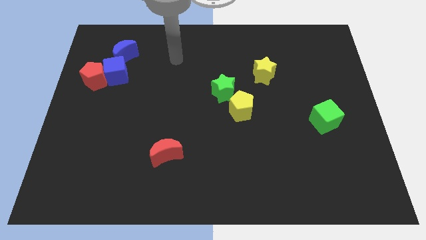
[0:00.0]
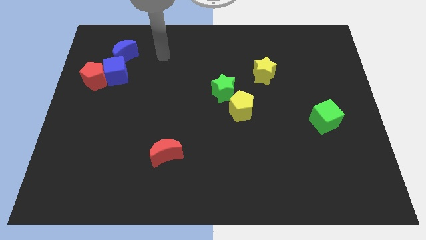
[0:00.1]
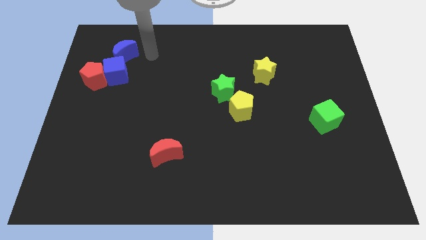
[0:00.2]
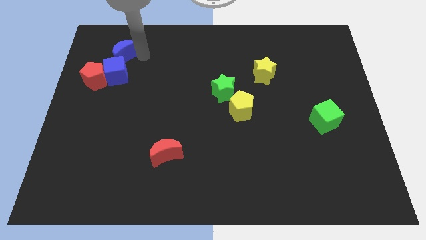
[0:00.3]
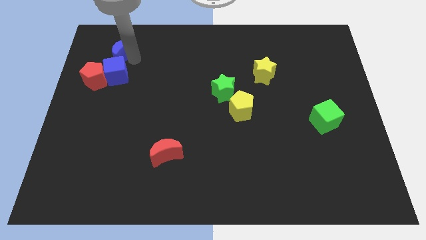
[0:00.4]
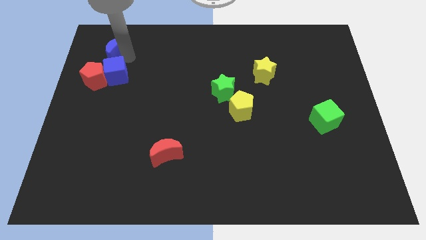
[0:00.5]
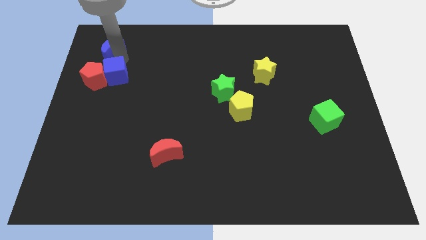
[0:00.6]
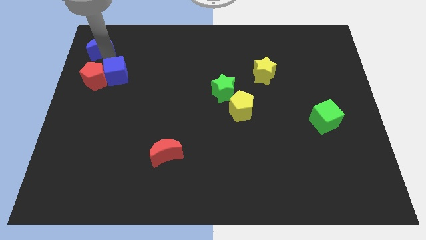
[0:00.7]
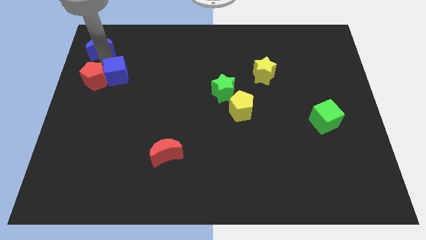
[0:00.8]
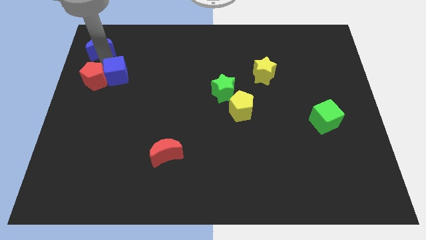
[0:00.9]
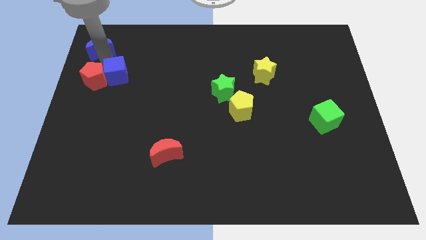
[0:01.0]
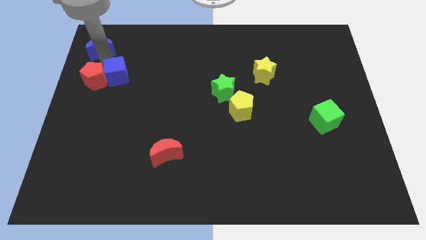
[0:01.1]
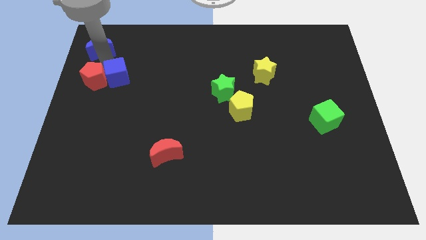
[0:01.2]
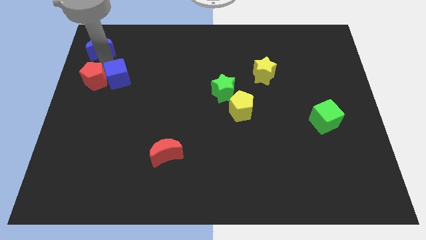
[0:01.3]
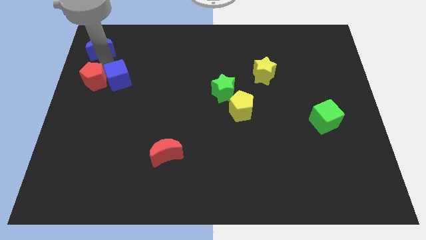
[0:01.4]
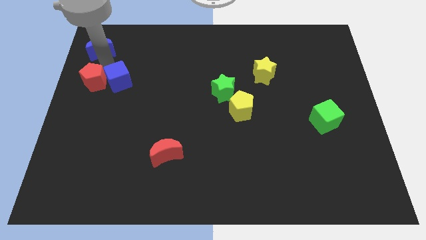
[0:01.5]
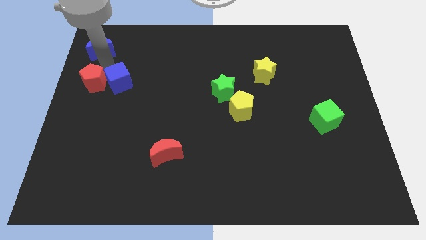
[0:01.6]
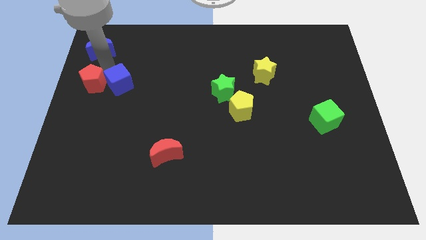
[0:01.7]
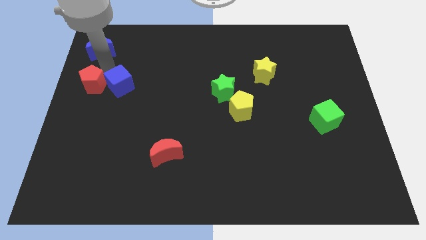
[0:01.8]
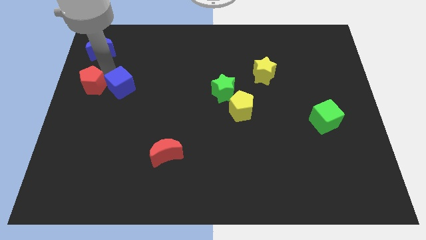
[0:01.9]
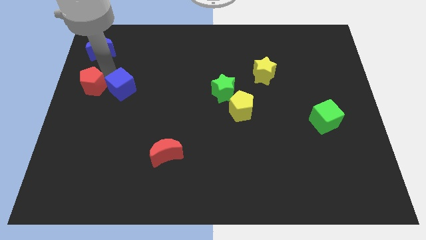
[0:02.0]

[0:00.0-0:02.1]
pull the blue cube apart from the red pentagon and blue moon

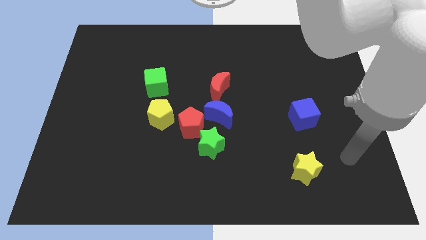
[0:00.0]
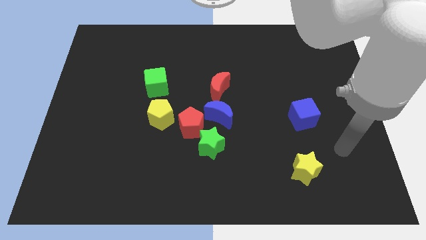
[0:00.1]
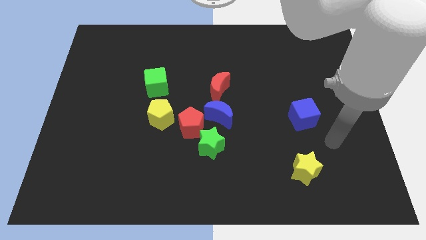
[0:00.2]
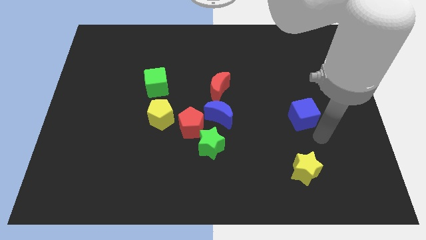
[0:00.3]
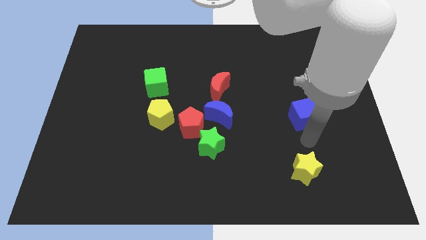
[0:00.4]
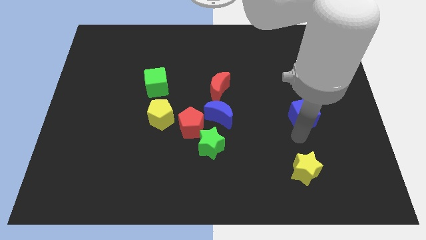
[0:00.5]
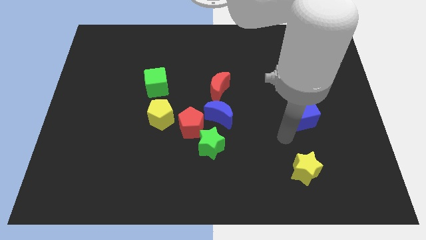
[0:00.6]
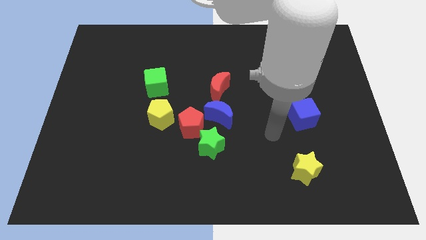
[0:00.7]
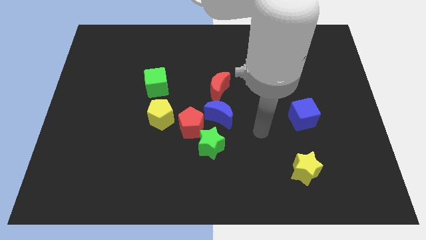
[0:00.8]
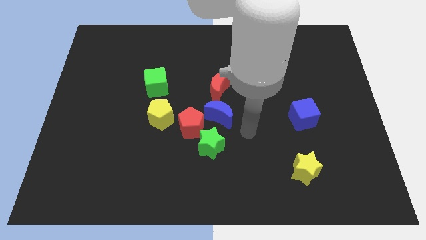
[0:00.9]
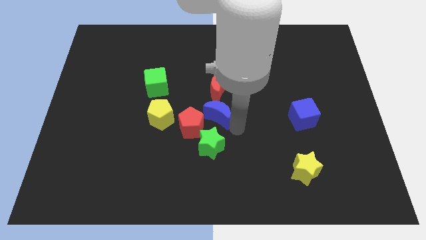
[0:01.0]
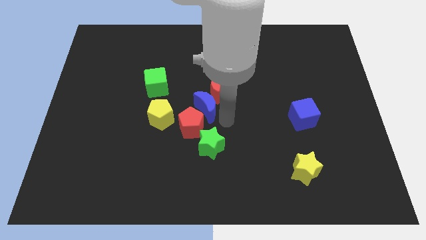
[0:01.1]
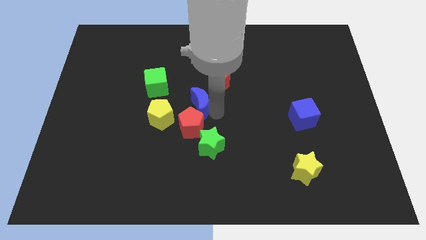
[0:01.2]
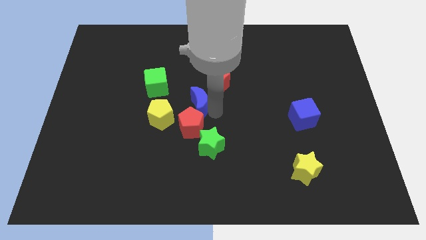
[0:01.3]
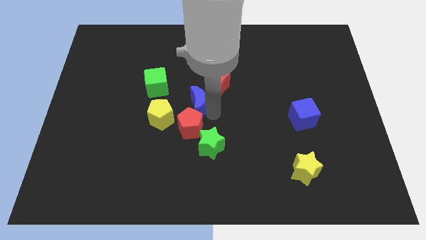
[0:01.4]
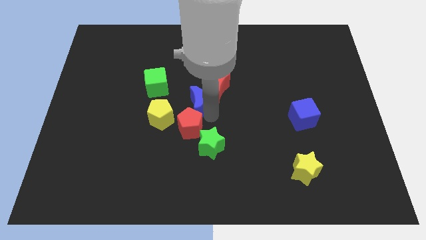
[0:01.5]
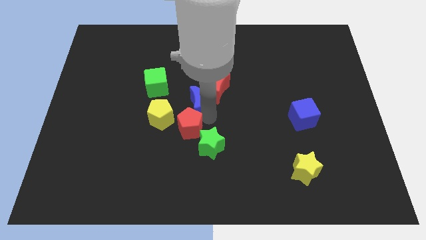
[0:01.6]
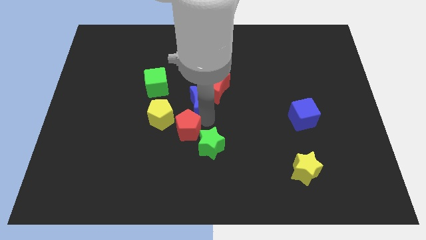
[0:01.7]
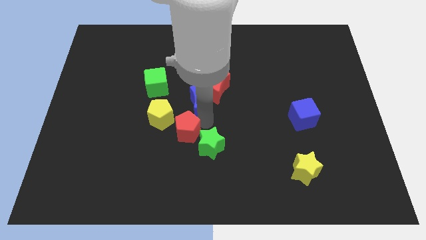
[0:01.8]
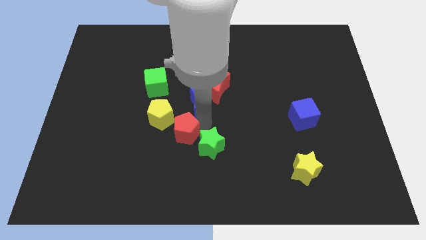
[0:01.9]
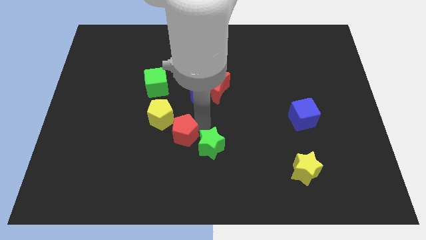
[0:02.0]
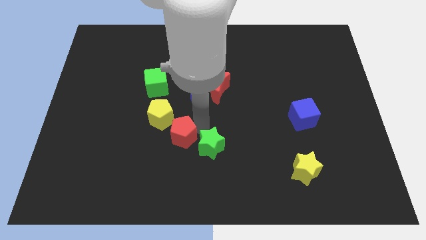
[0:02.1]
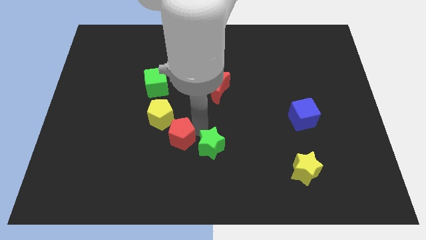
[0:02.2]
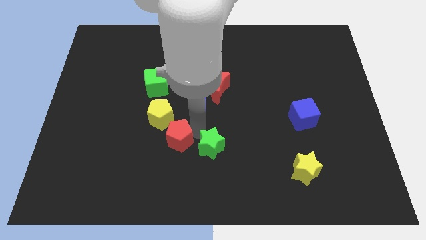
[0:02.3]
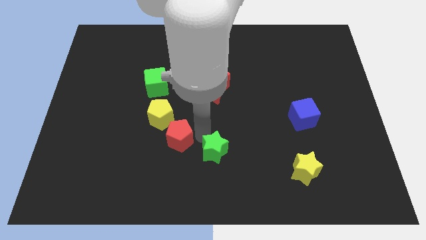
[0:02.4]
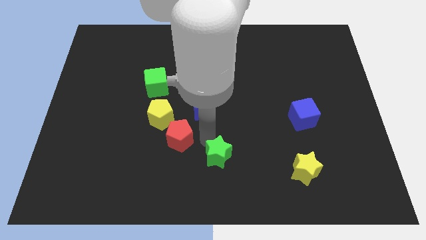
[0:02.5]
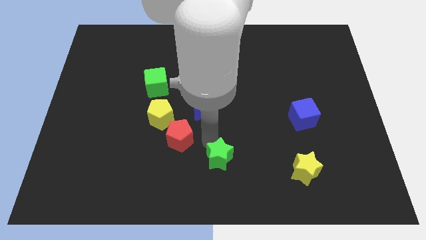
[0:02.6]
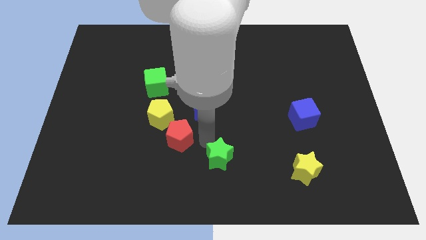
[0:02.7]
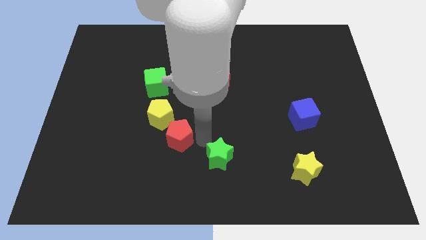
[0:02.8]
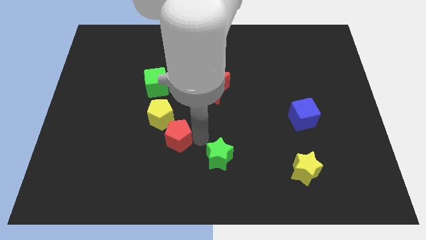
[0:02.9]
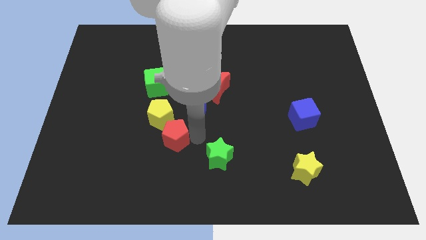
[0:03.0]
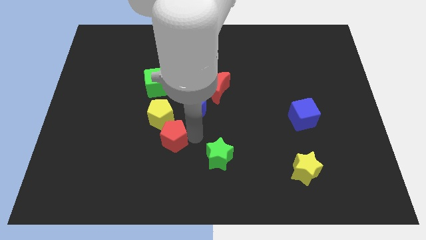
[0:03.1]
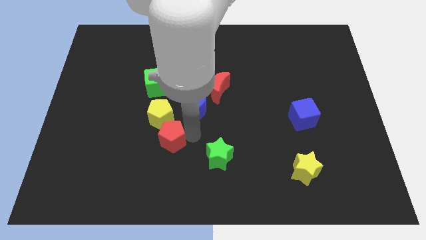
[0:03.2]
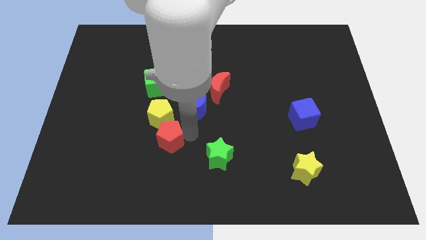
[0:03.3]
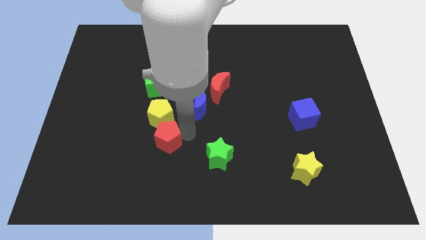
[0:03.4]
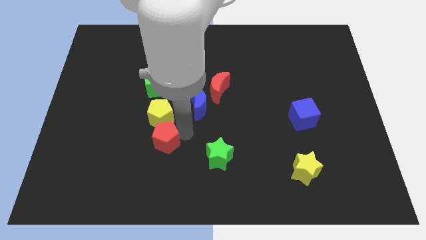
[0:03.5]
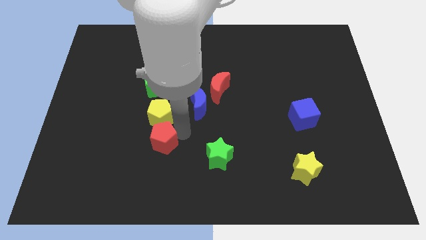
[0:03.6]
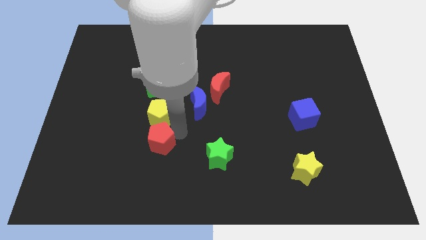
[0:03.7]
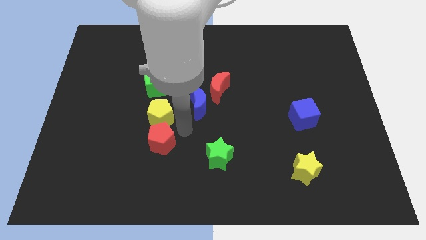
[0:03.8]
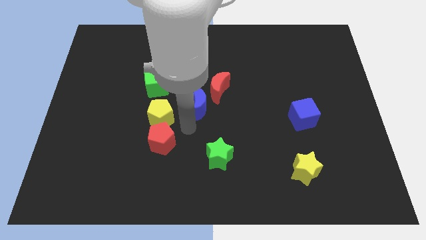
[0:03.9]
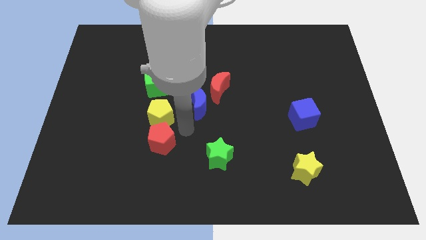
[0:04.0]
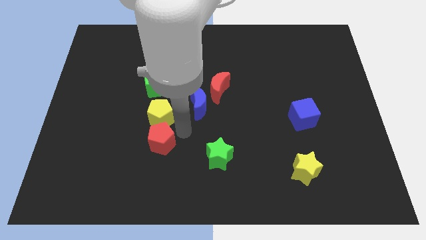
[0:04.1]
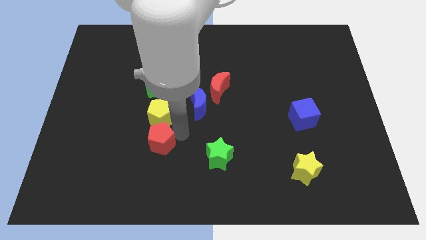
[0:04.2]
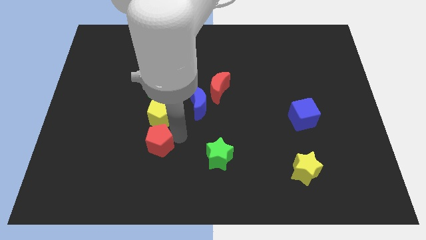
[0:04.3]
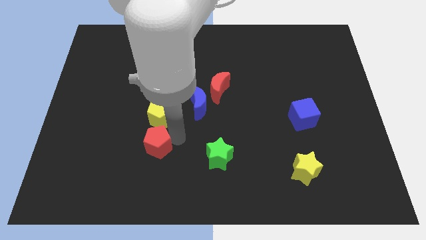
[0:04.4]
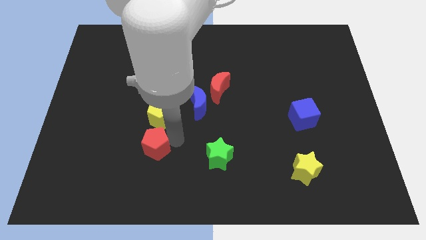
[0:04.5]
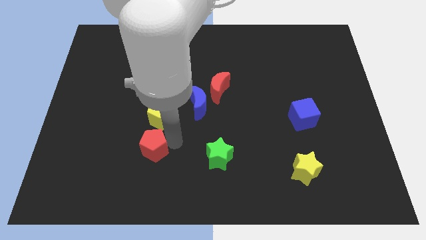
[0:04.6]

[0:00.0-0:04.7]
pull the red pentagon apart from the green star, blue moon, and yellow pentagon

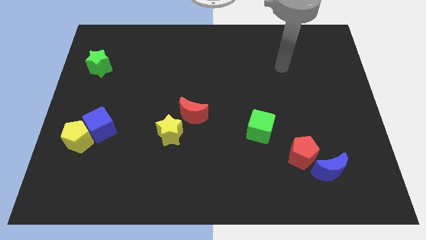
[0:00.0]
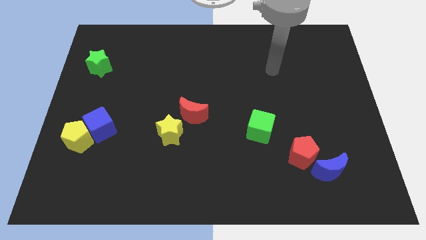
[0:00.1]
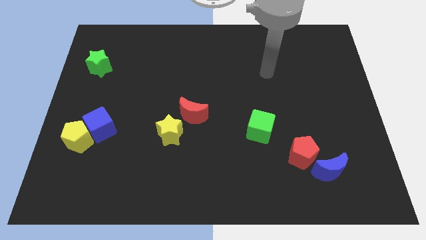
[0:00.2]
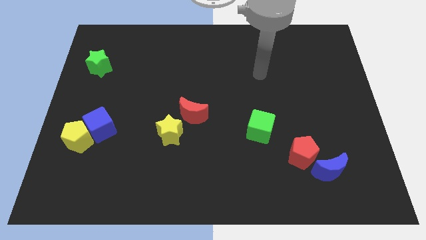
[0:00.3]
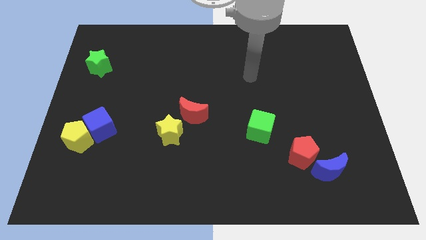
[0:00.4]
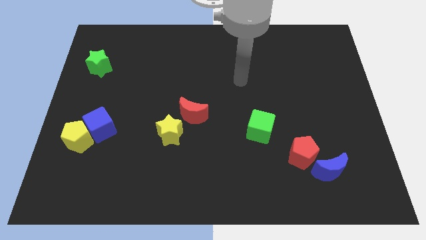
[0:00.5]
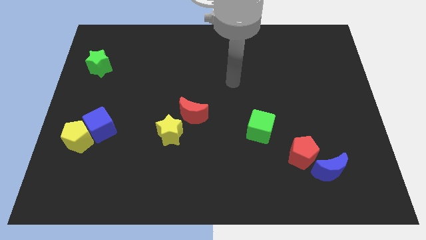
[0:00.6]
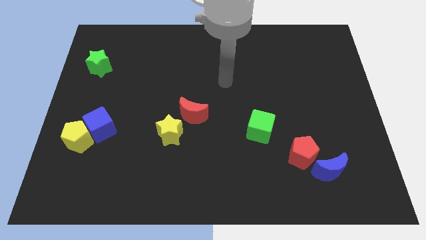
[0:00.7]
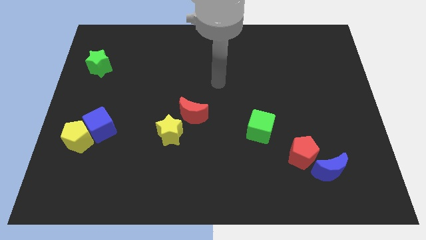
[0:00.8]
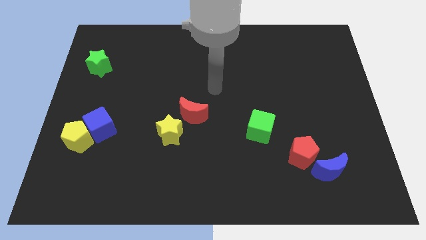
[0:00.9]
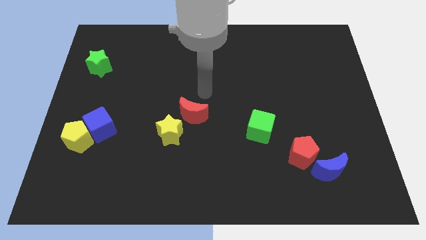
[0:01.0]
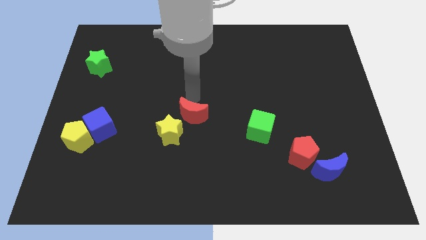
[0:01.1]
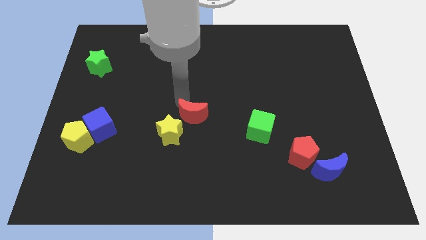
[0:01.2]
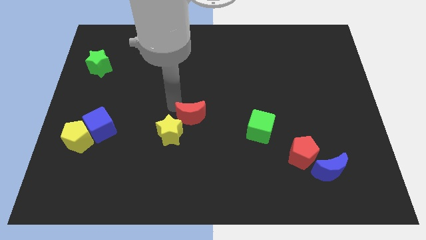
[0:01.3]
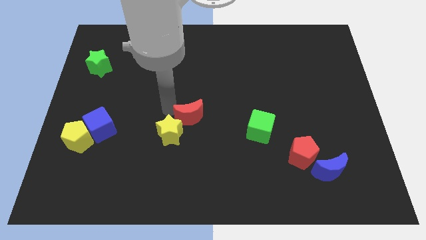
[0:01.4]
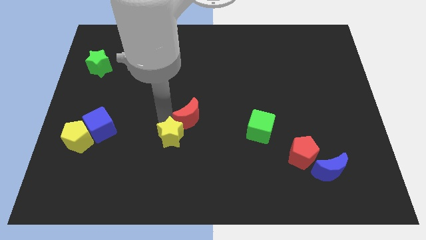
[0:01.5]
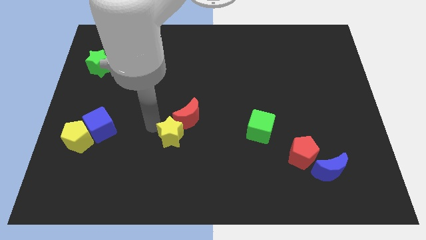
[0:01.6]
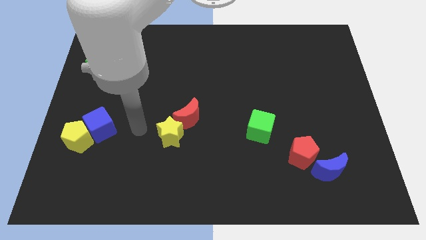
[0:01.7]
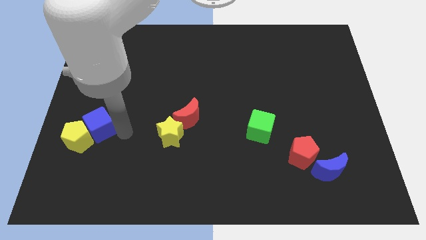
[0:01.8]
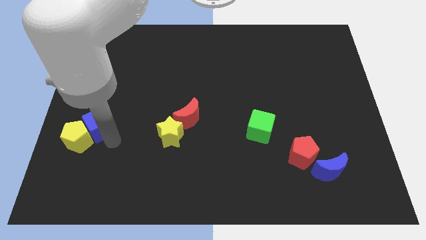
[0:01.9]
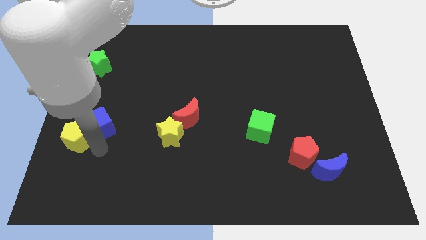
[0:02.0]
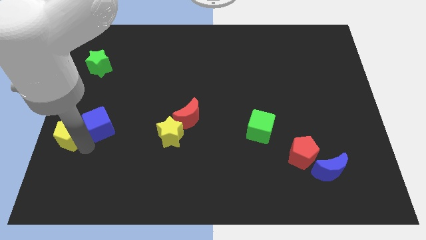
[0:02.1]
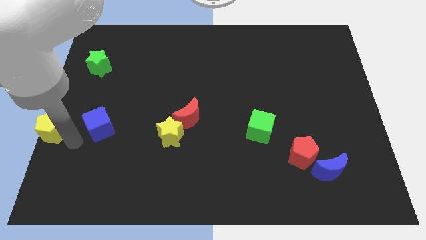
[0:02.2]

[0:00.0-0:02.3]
separate the blue cube from the yellow pentagon

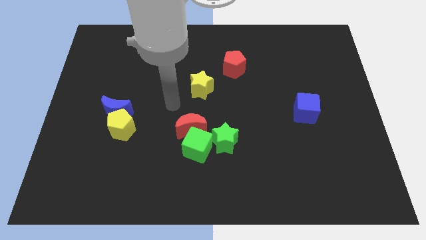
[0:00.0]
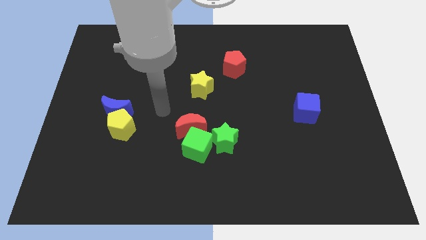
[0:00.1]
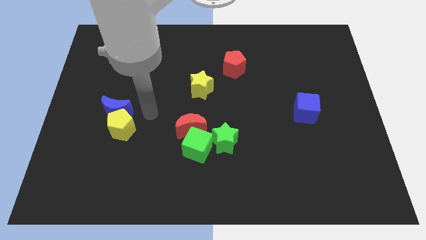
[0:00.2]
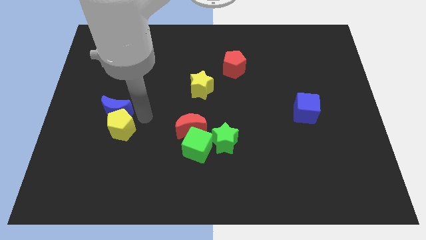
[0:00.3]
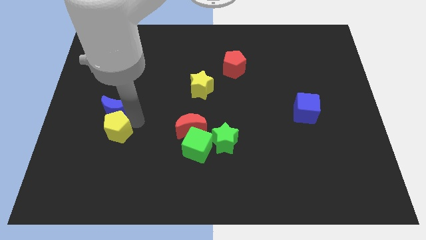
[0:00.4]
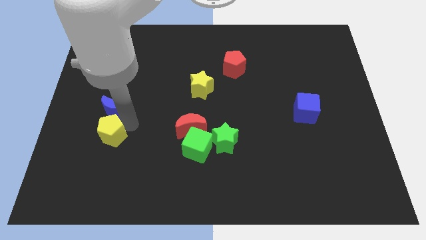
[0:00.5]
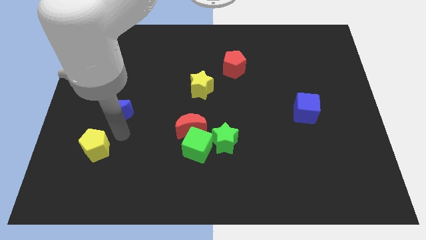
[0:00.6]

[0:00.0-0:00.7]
separate the blue moon from the yellow pentagon
